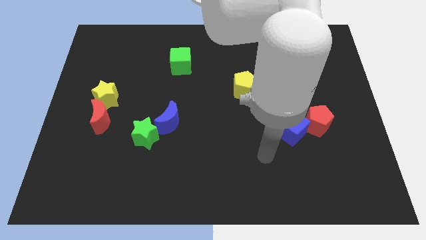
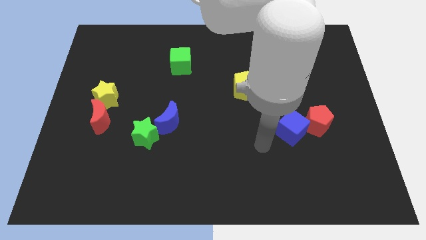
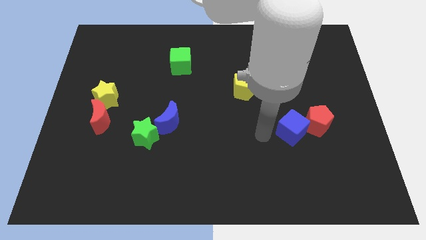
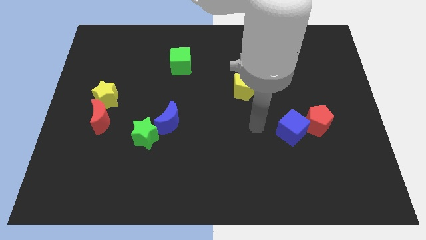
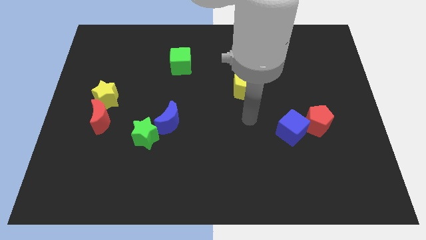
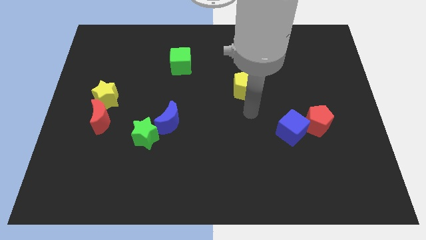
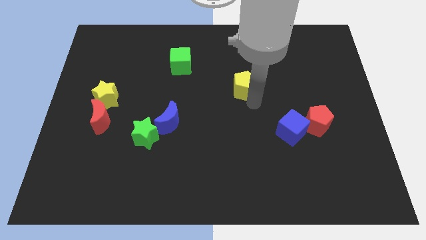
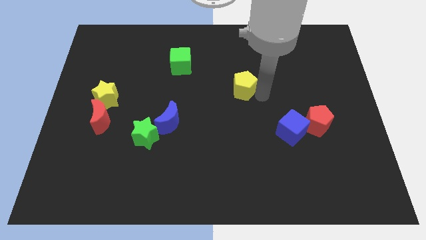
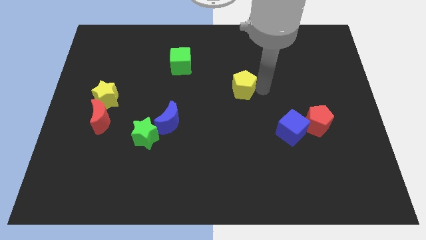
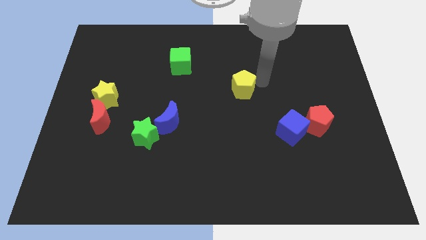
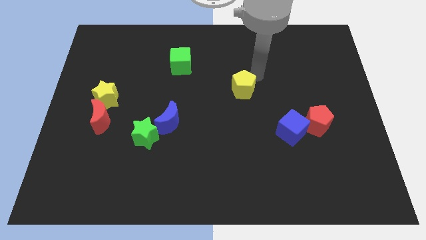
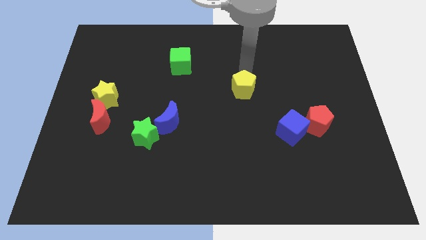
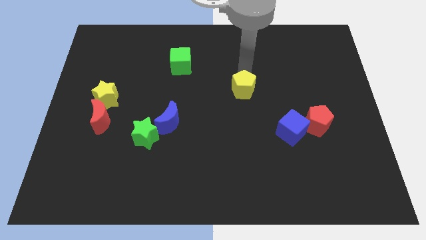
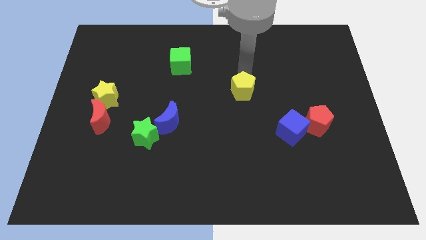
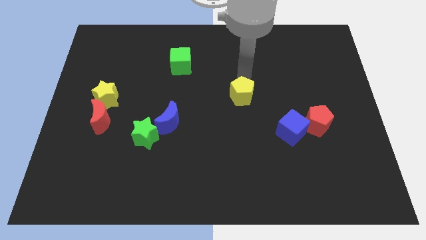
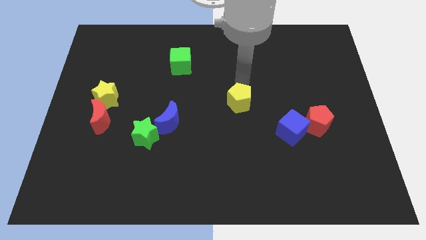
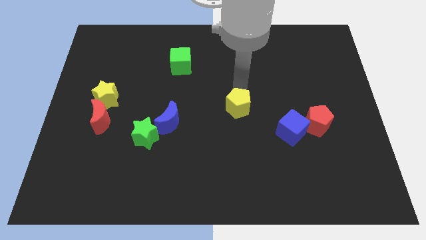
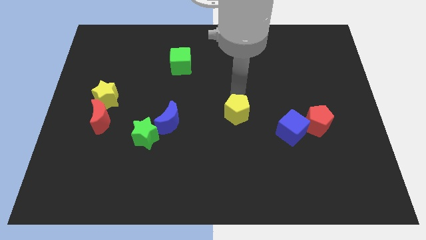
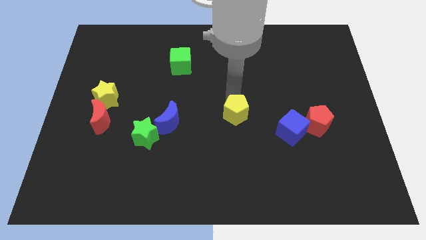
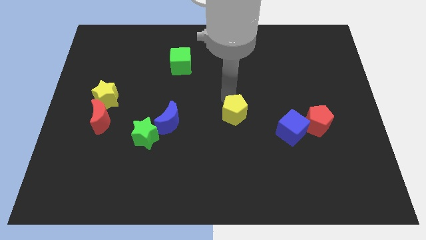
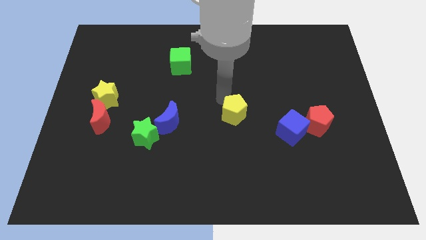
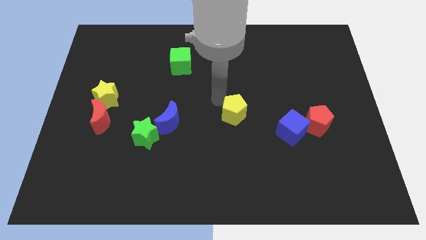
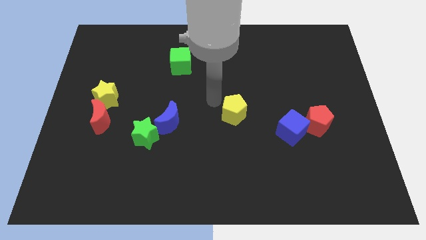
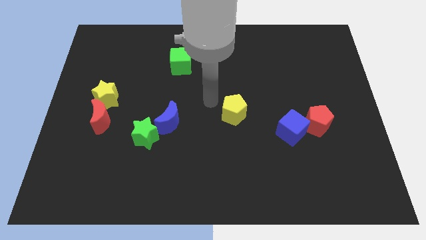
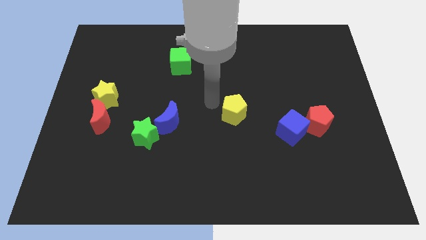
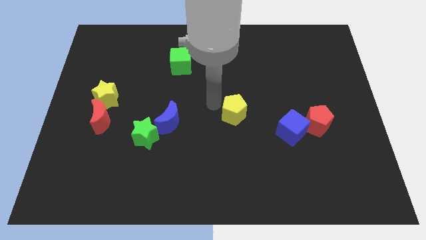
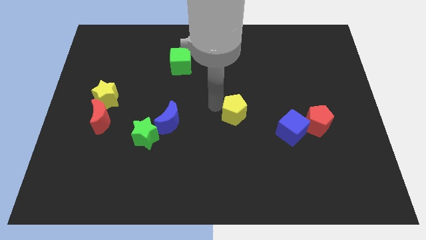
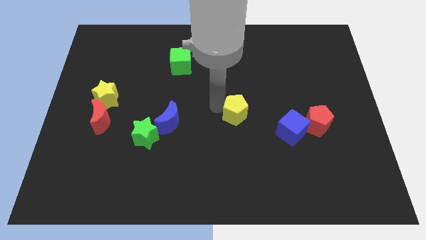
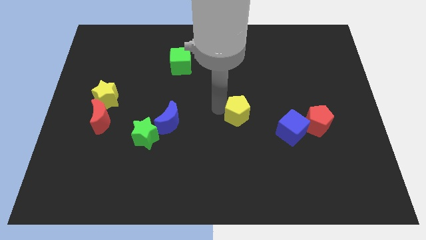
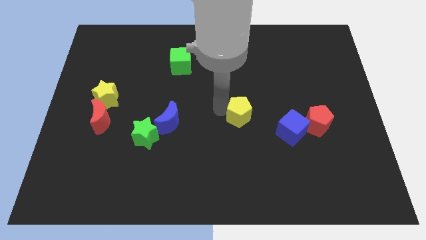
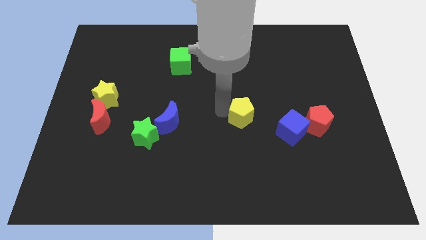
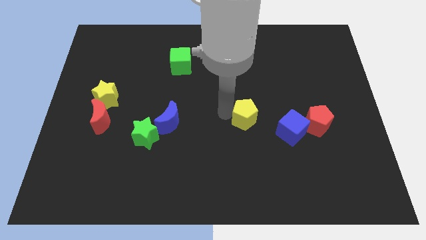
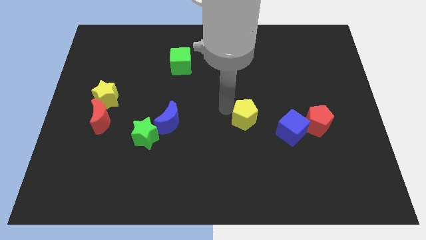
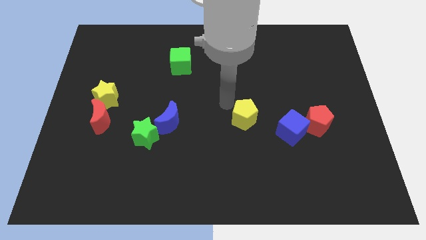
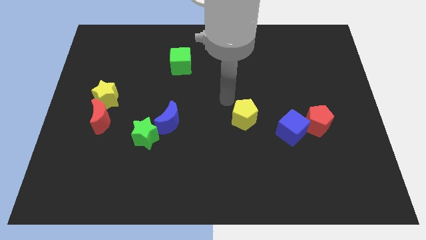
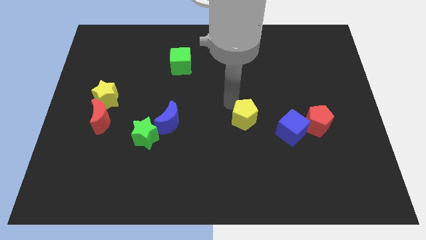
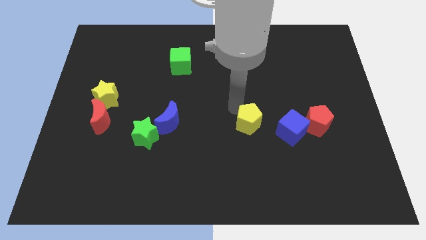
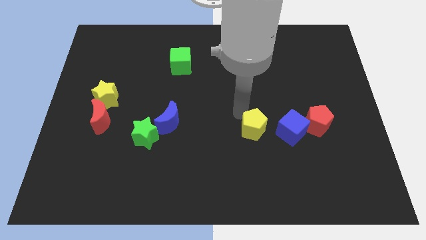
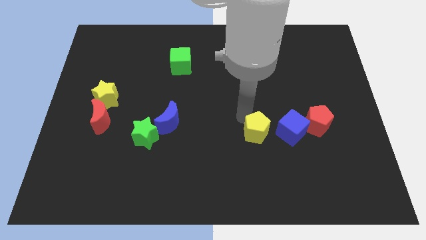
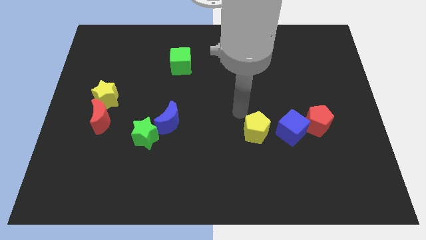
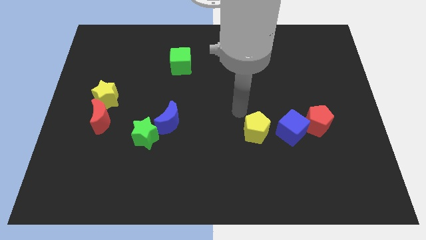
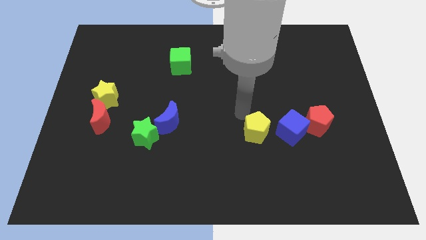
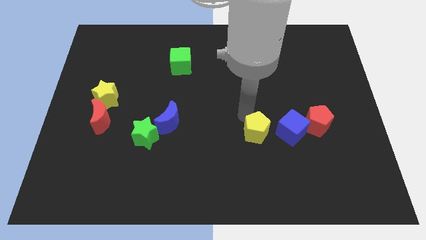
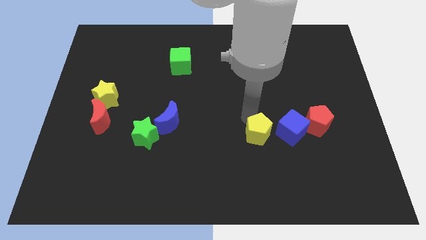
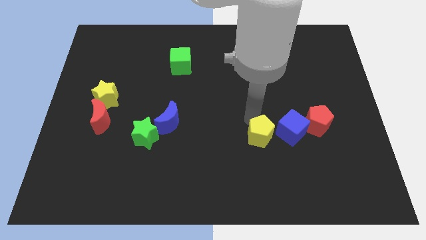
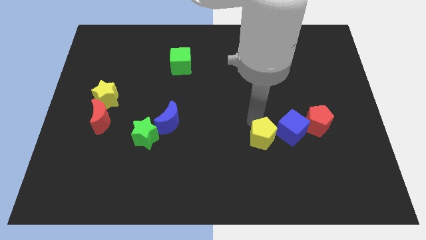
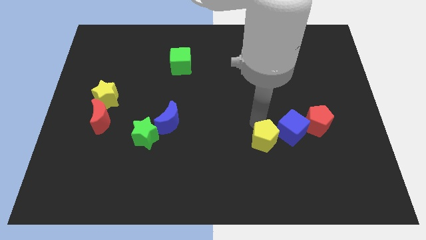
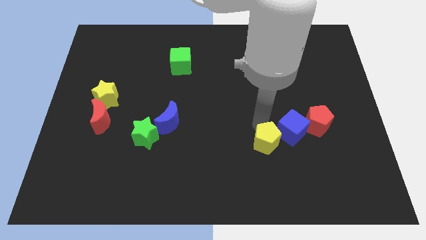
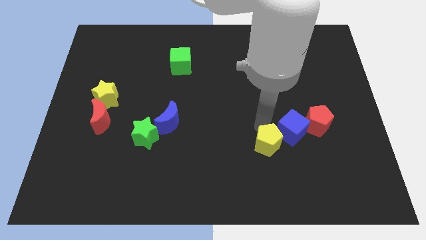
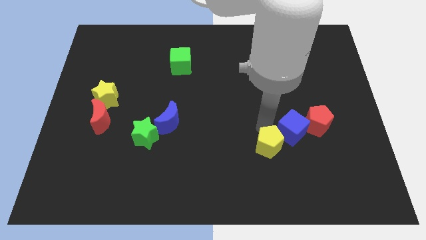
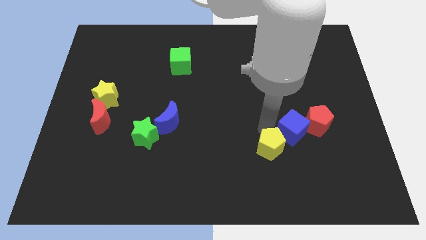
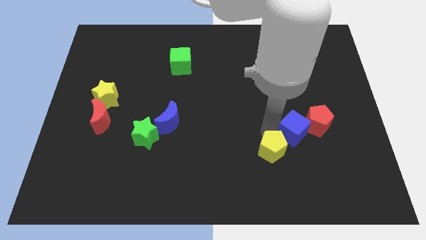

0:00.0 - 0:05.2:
push the yellow pentagon to the bottom side of the blue cube

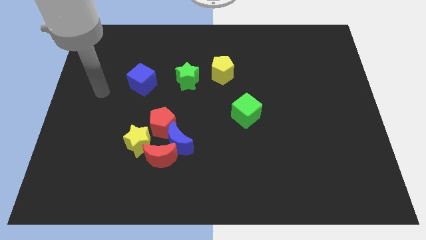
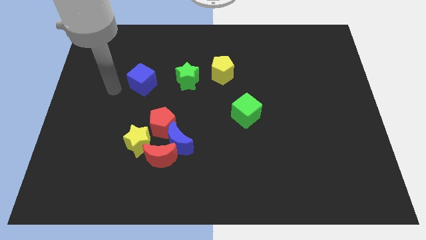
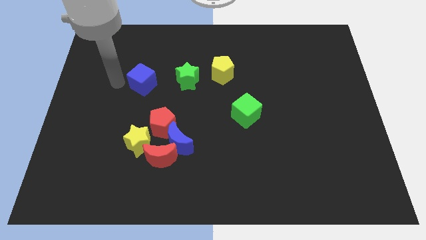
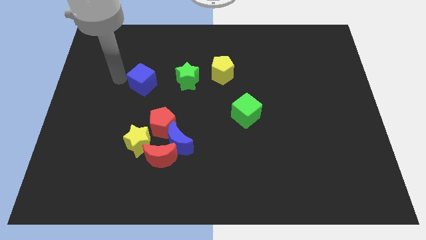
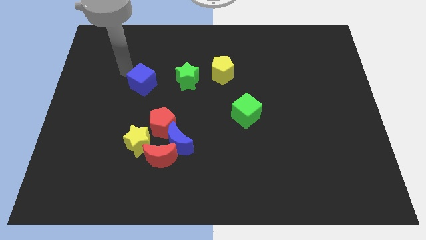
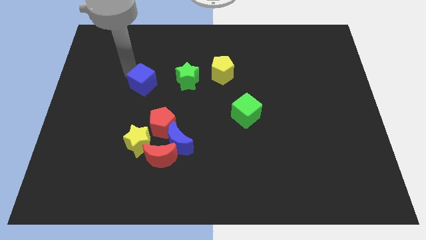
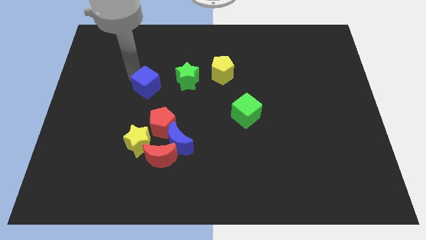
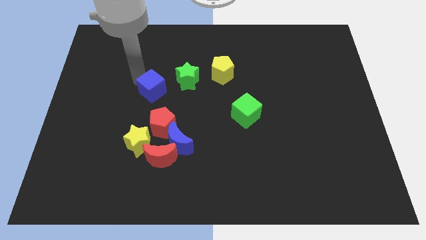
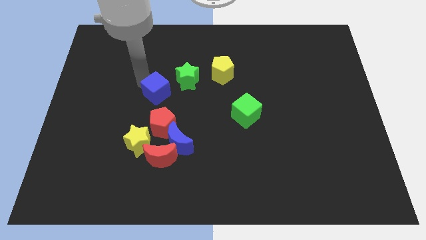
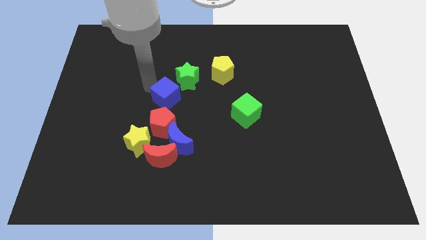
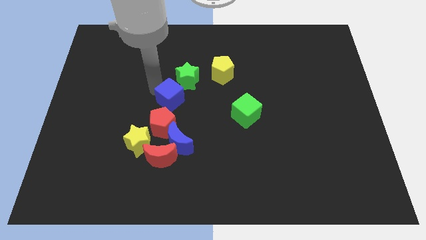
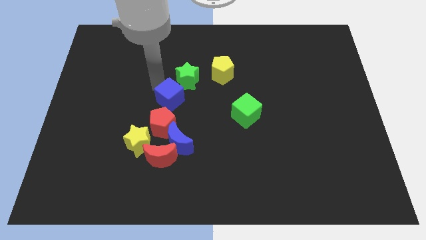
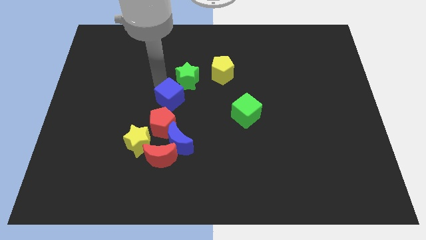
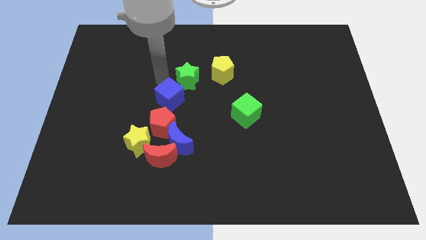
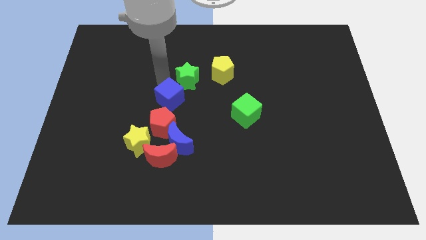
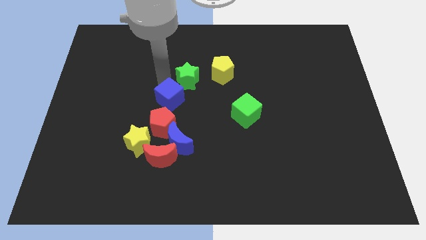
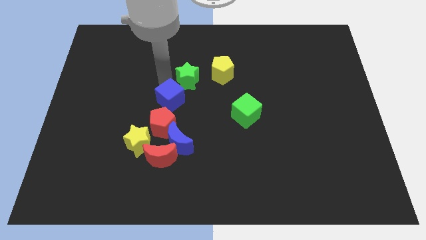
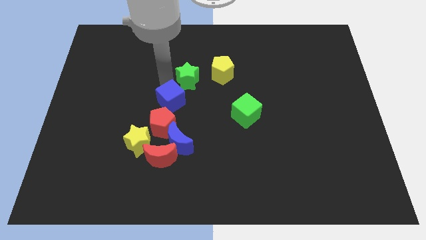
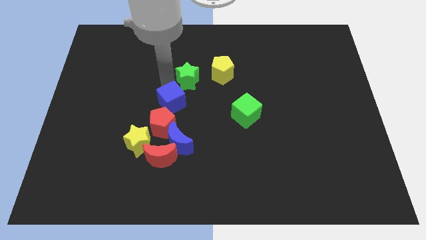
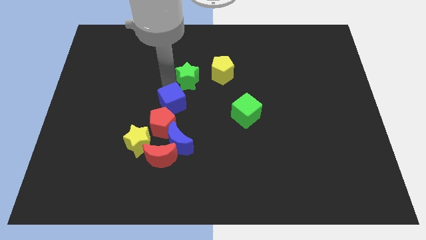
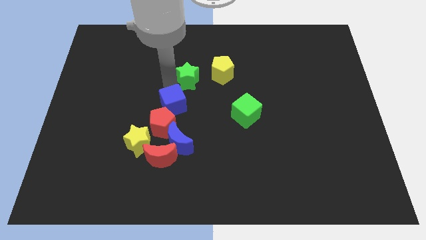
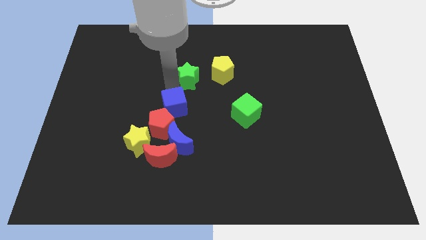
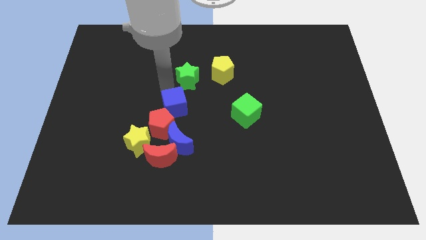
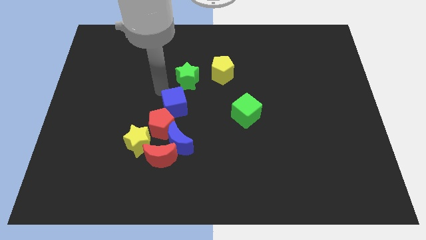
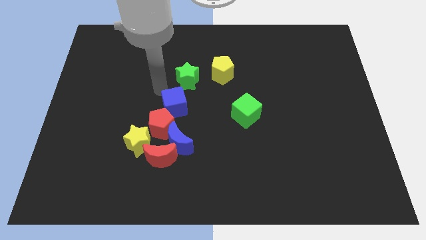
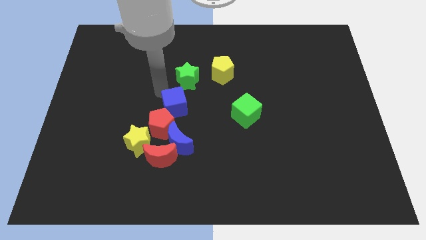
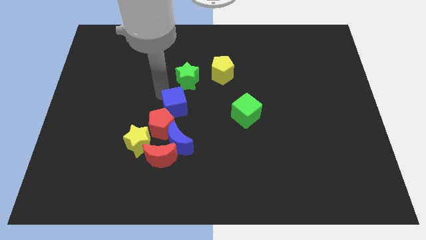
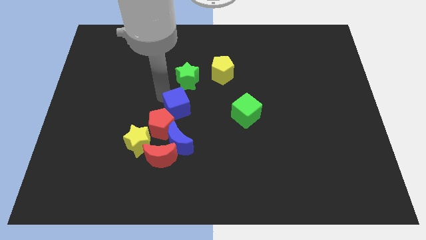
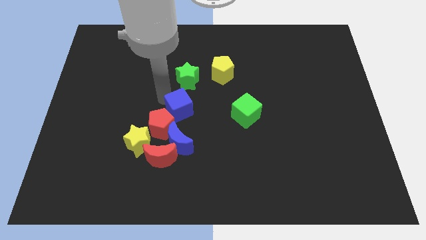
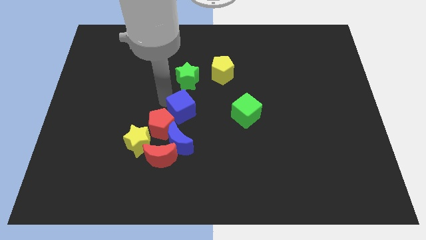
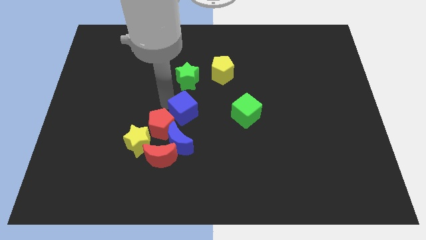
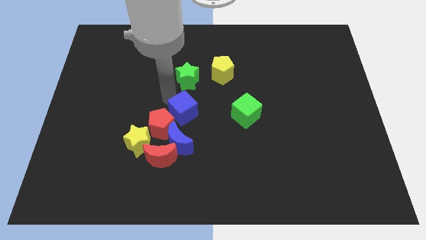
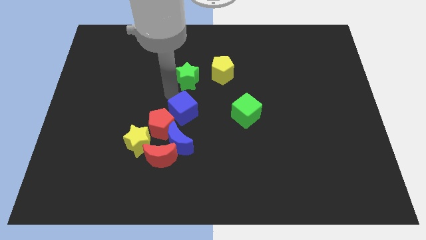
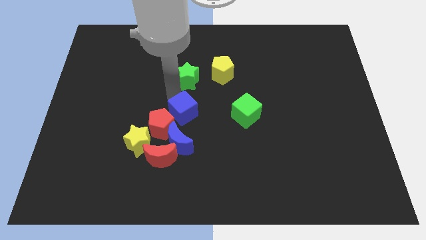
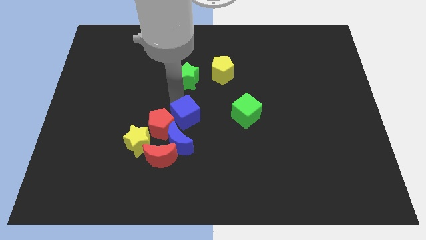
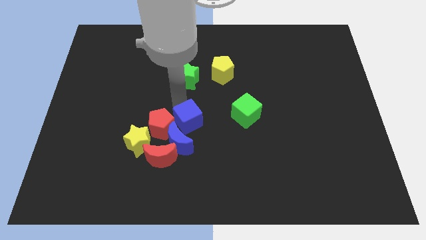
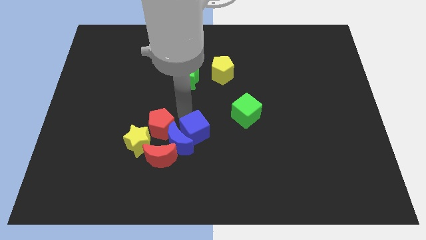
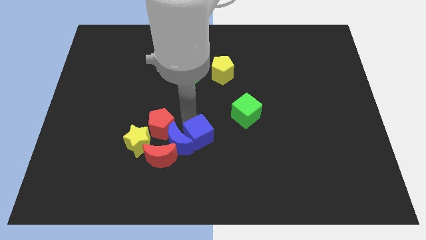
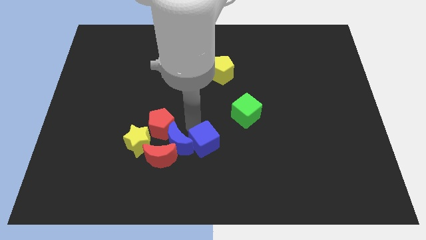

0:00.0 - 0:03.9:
push the blue cube to the right side of the red moon
